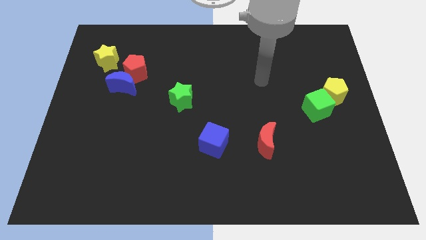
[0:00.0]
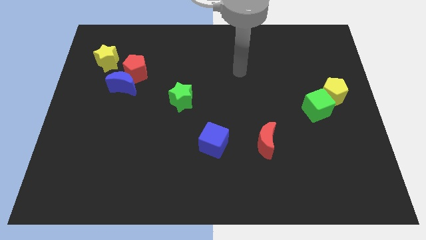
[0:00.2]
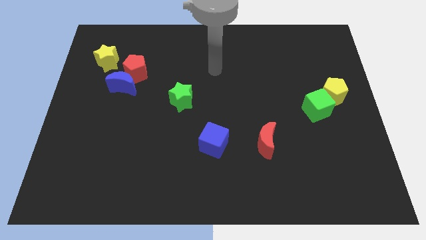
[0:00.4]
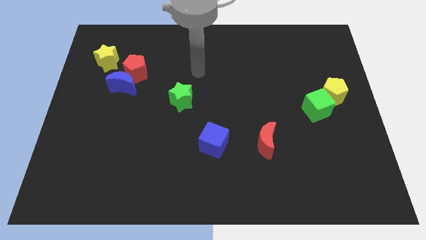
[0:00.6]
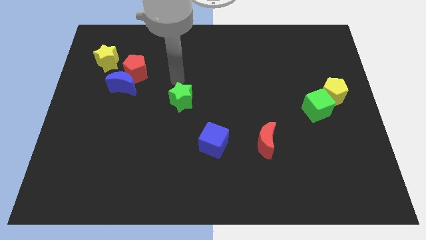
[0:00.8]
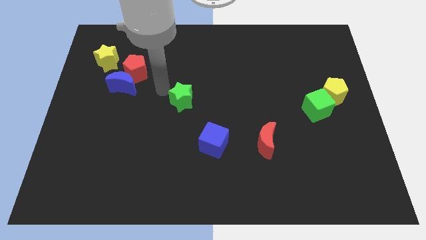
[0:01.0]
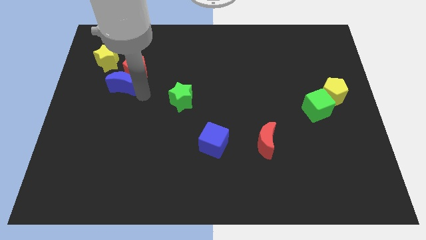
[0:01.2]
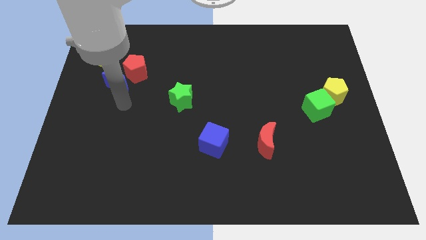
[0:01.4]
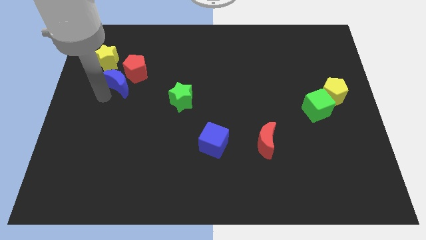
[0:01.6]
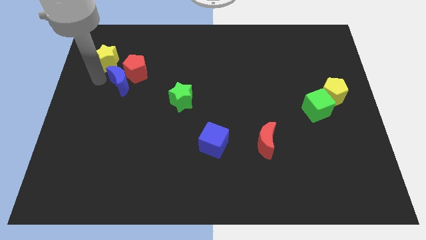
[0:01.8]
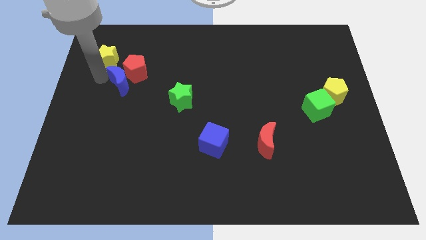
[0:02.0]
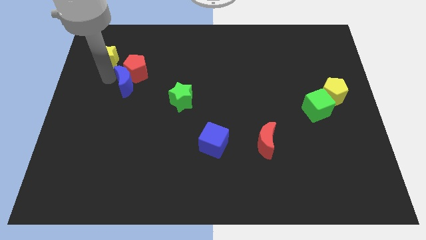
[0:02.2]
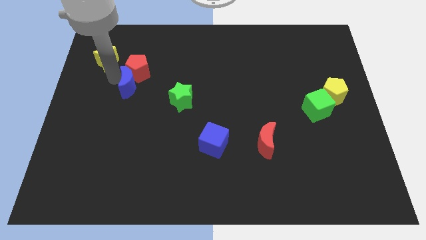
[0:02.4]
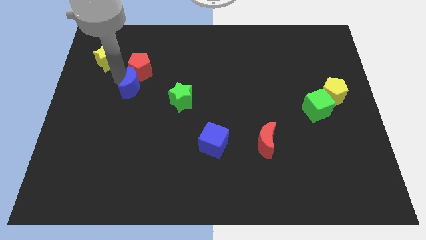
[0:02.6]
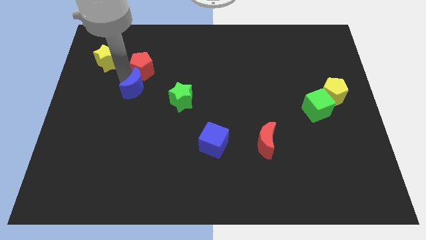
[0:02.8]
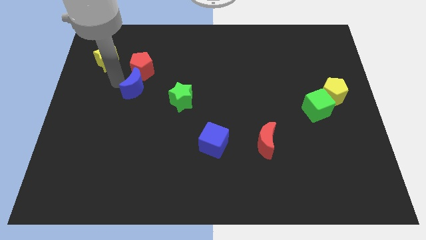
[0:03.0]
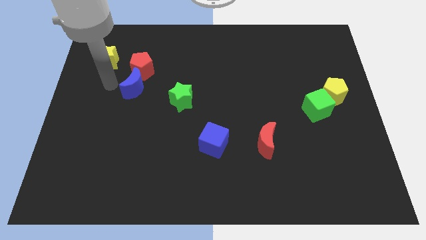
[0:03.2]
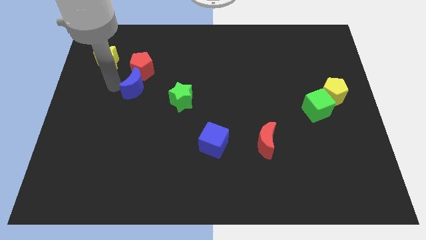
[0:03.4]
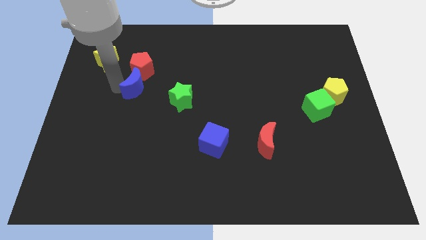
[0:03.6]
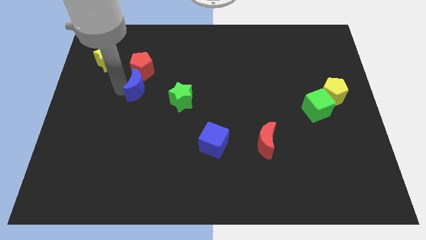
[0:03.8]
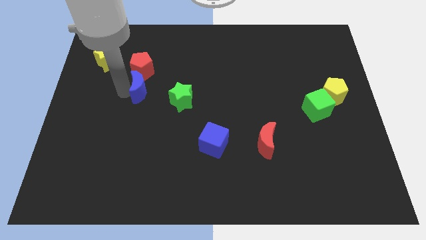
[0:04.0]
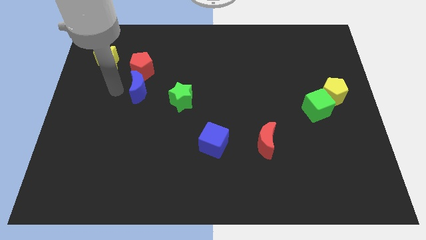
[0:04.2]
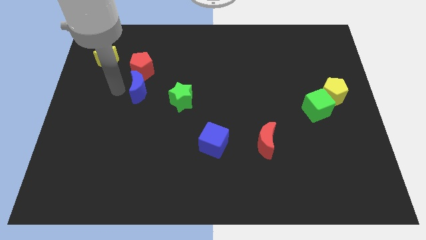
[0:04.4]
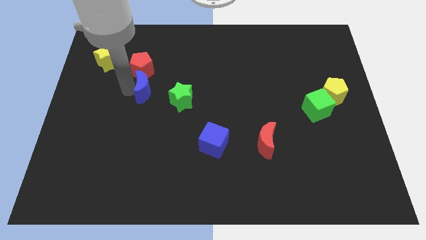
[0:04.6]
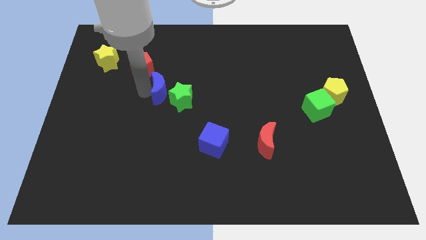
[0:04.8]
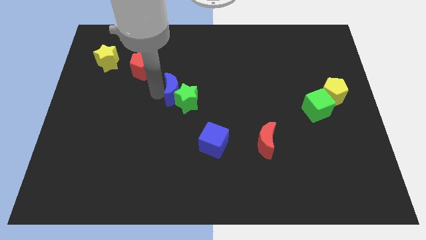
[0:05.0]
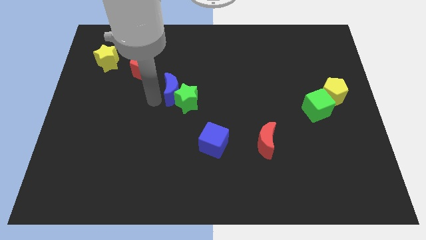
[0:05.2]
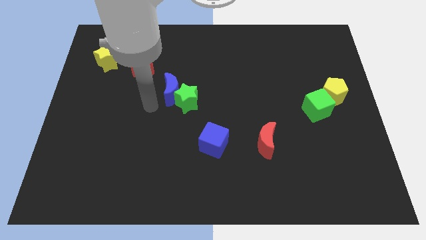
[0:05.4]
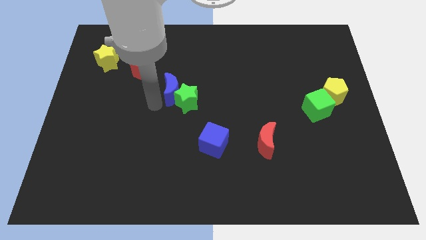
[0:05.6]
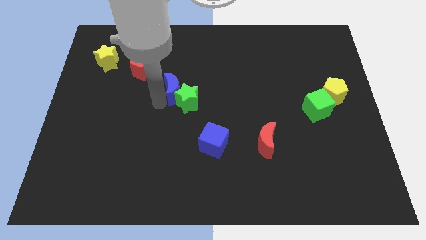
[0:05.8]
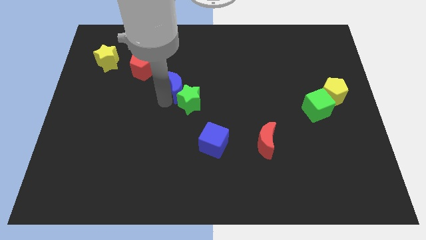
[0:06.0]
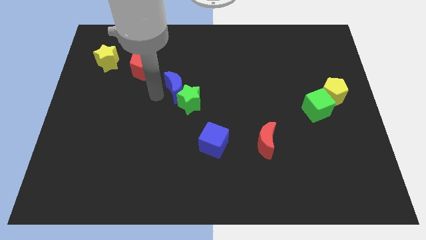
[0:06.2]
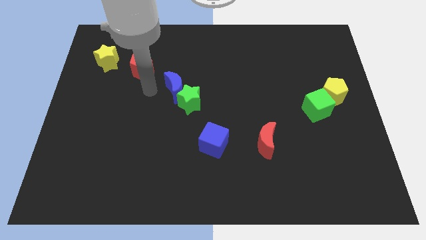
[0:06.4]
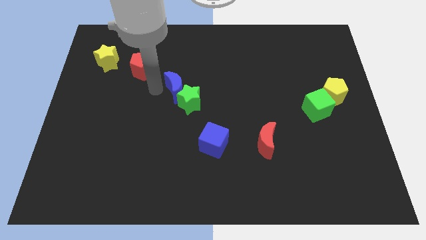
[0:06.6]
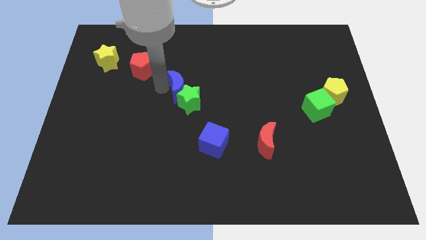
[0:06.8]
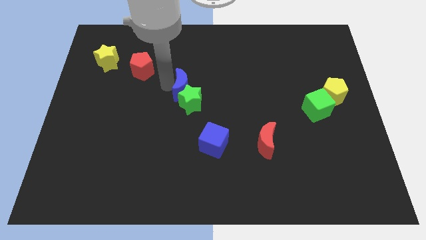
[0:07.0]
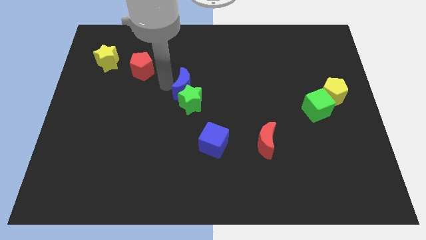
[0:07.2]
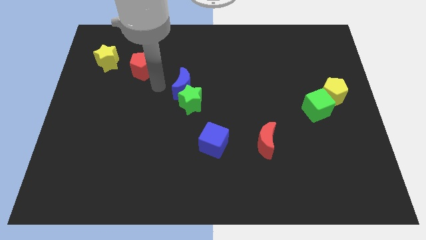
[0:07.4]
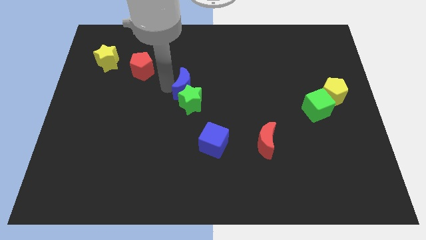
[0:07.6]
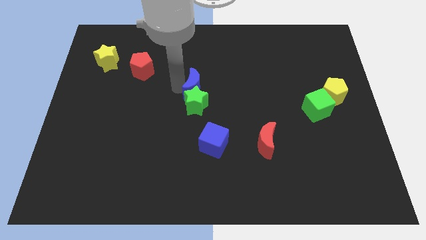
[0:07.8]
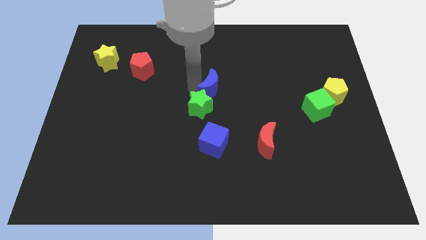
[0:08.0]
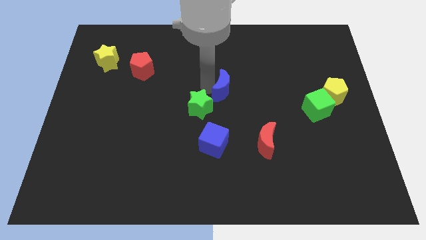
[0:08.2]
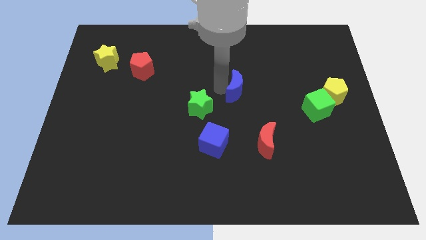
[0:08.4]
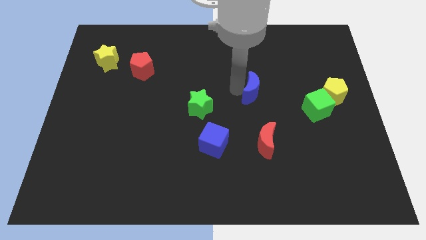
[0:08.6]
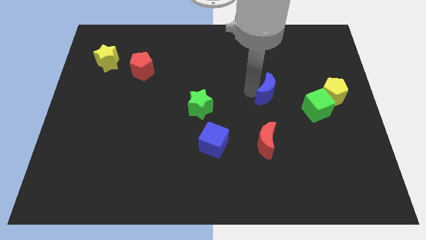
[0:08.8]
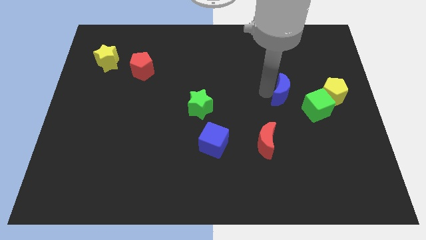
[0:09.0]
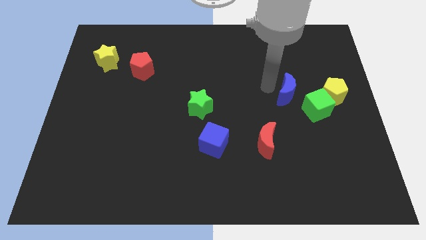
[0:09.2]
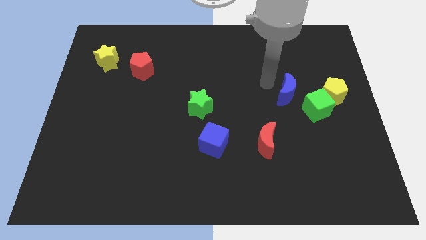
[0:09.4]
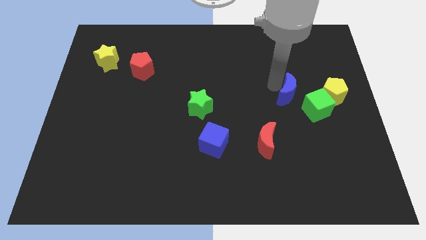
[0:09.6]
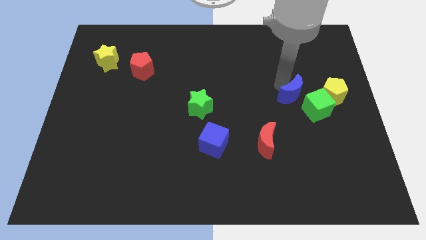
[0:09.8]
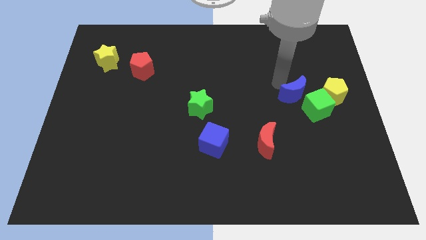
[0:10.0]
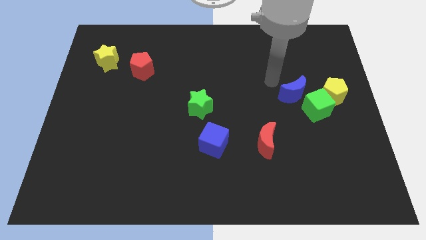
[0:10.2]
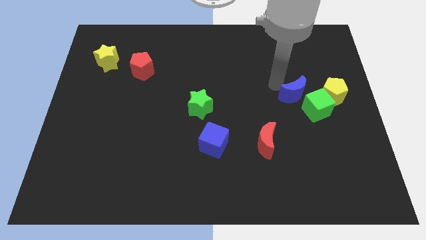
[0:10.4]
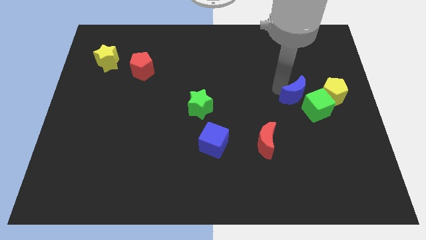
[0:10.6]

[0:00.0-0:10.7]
push the blue moon next to the green cube

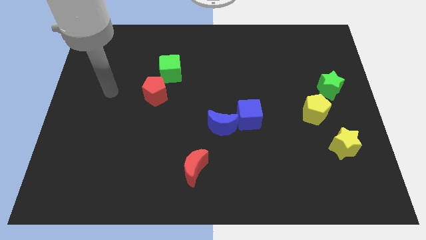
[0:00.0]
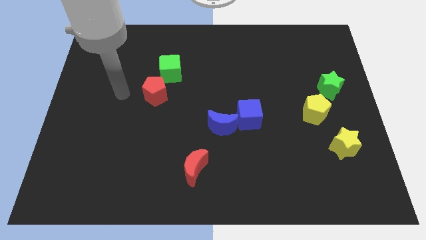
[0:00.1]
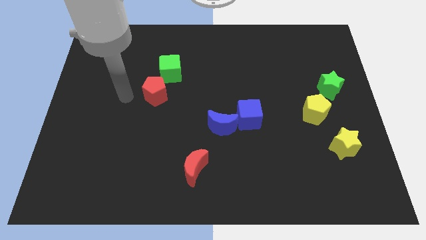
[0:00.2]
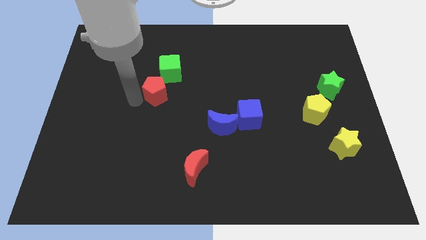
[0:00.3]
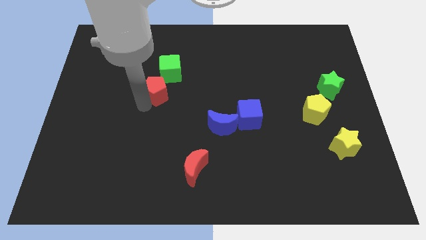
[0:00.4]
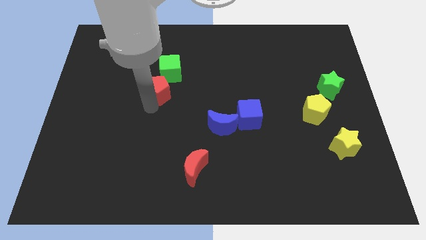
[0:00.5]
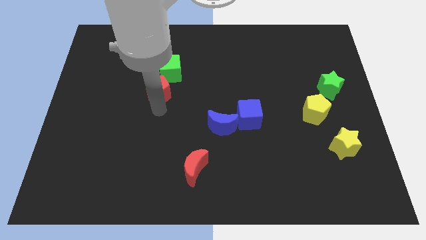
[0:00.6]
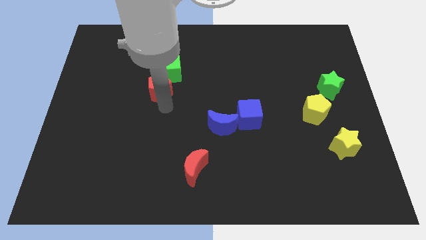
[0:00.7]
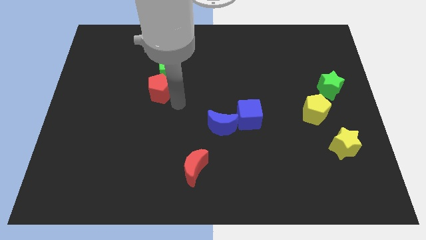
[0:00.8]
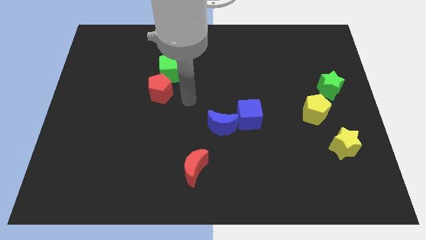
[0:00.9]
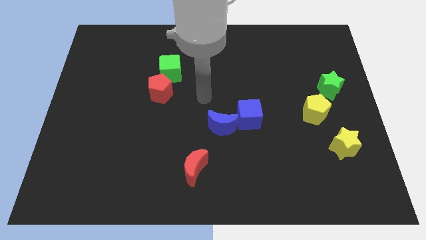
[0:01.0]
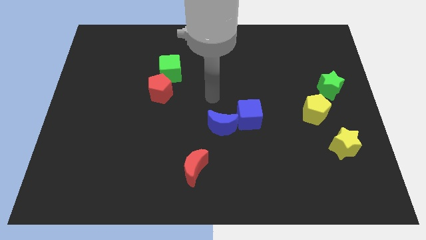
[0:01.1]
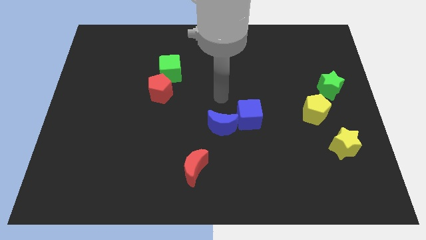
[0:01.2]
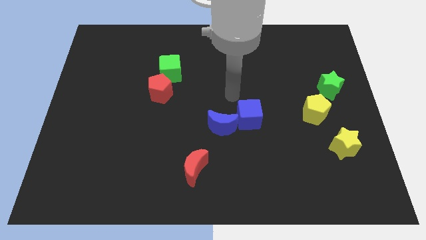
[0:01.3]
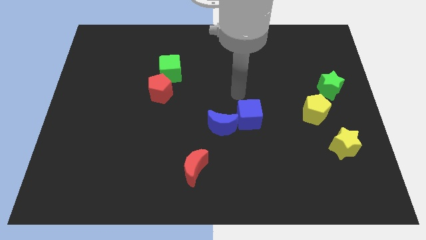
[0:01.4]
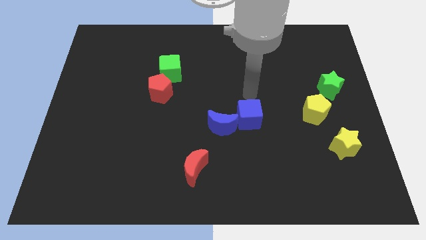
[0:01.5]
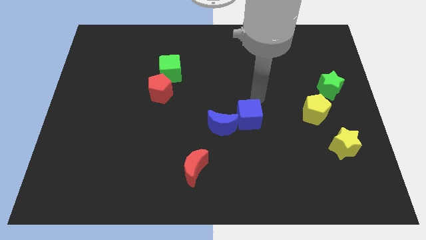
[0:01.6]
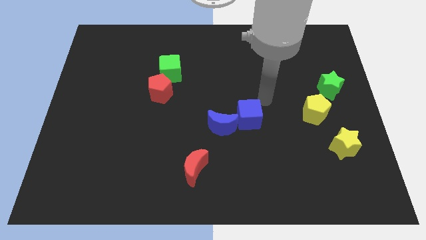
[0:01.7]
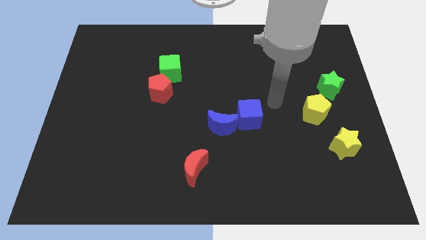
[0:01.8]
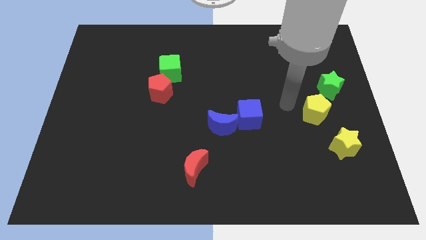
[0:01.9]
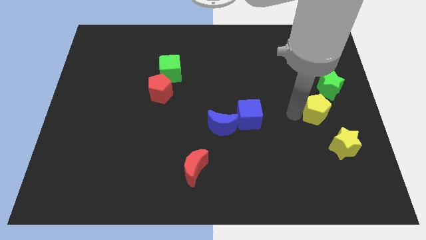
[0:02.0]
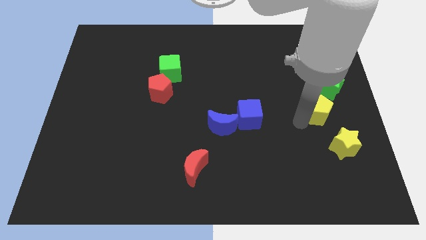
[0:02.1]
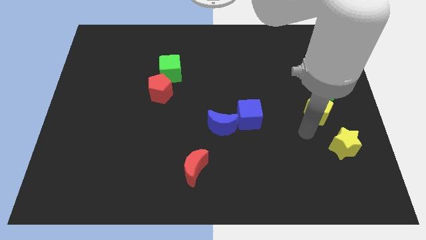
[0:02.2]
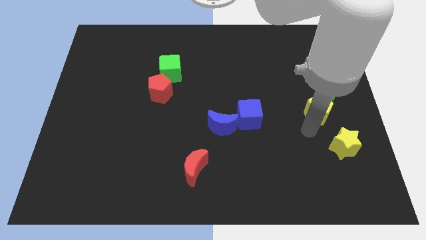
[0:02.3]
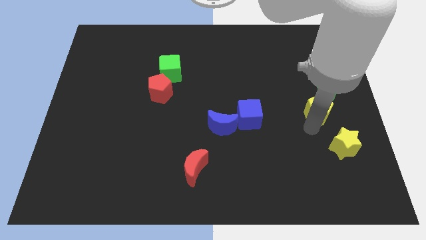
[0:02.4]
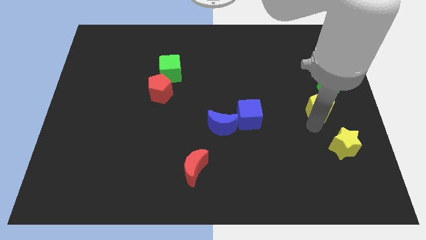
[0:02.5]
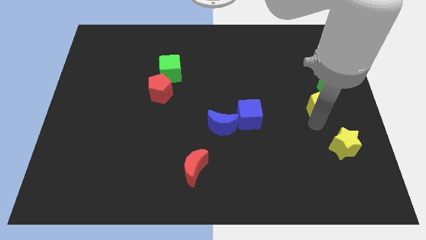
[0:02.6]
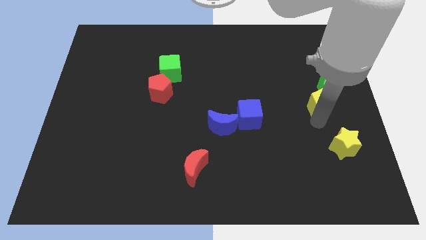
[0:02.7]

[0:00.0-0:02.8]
move the yellow pentagon close to the green star
